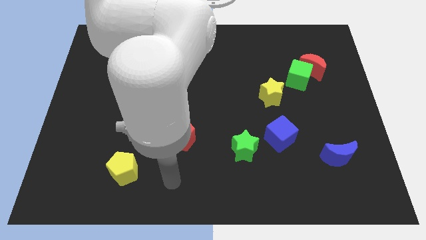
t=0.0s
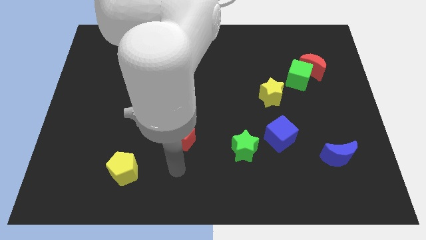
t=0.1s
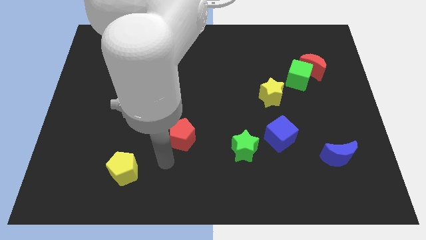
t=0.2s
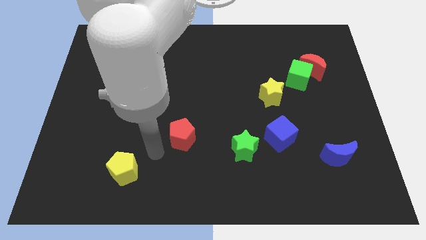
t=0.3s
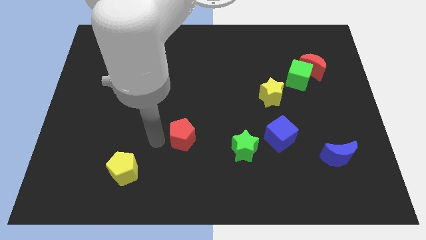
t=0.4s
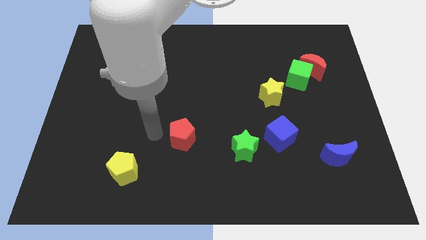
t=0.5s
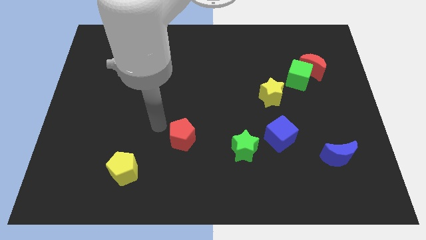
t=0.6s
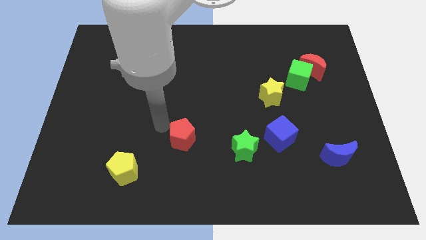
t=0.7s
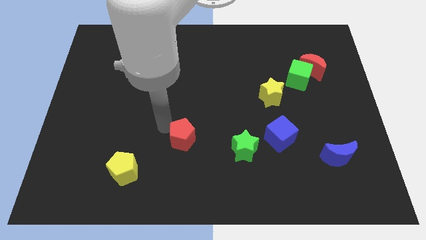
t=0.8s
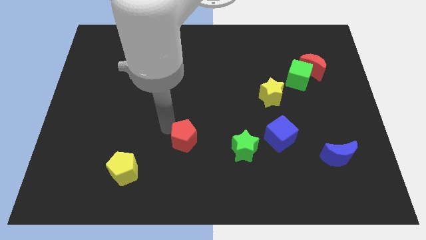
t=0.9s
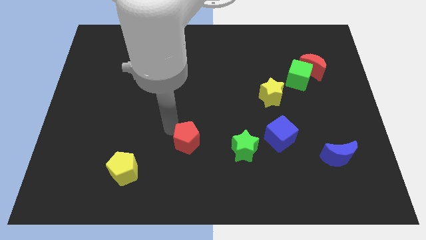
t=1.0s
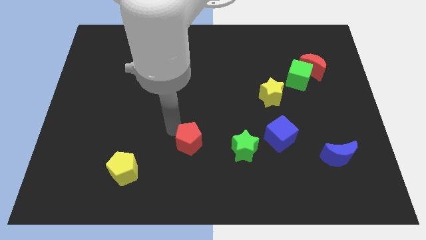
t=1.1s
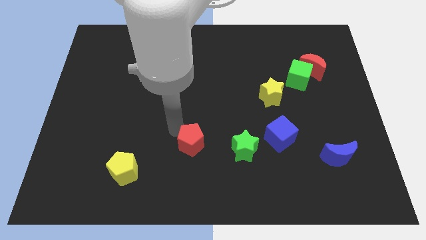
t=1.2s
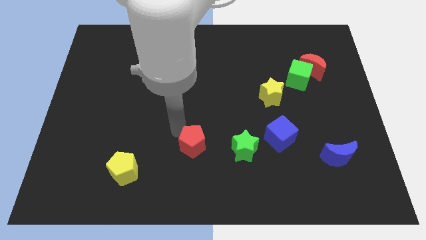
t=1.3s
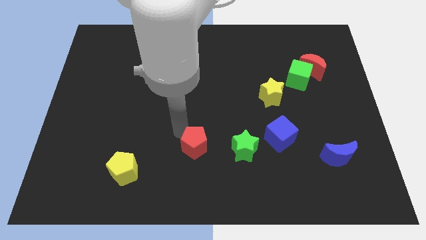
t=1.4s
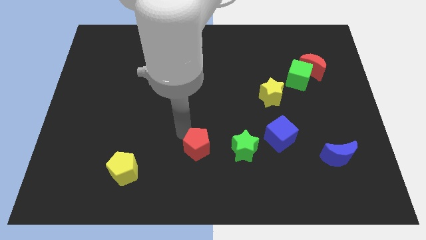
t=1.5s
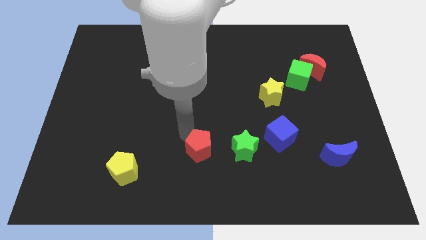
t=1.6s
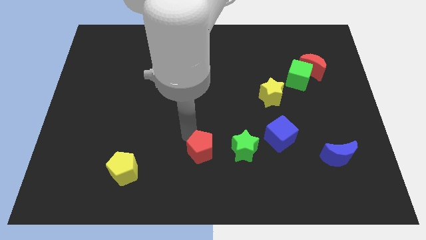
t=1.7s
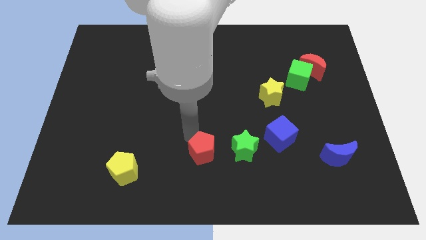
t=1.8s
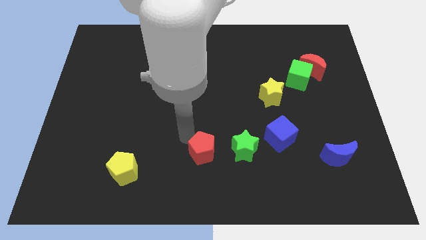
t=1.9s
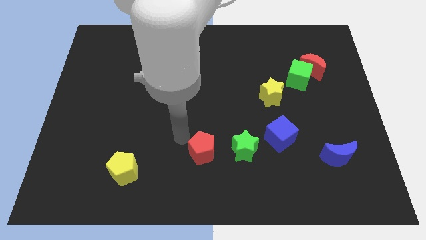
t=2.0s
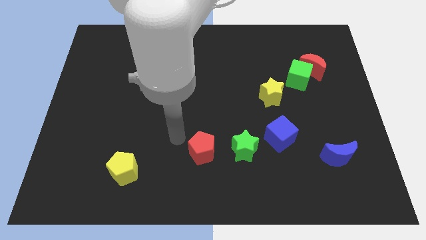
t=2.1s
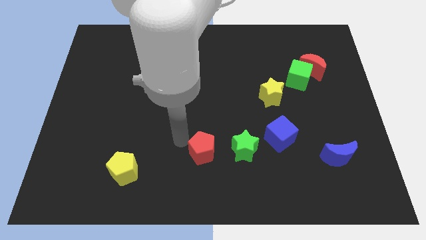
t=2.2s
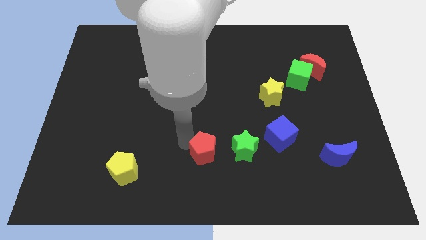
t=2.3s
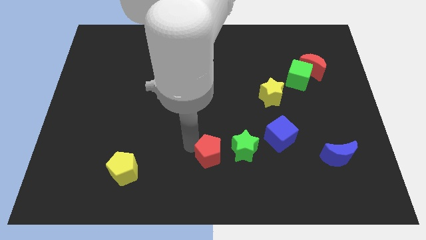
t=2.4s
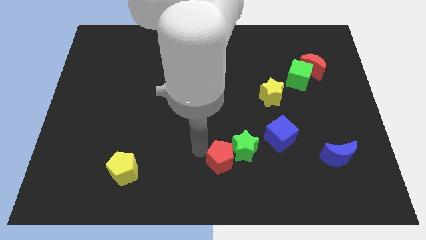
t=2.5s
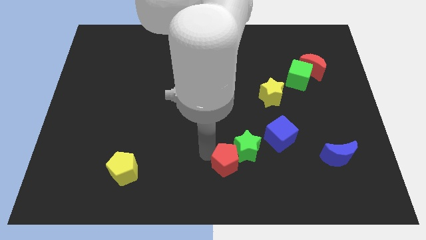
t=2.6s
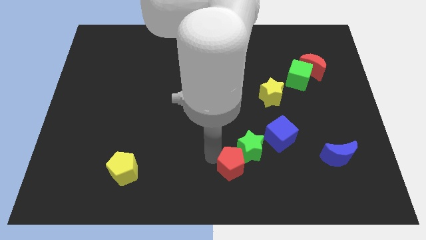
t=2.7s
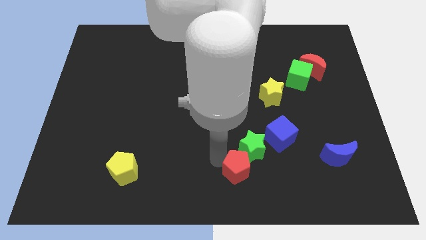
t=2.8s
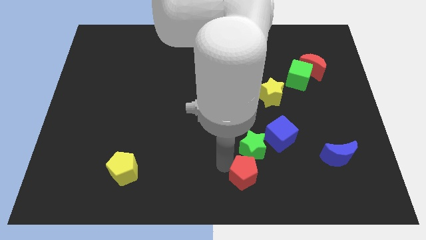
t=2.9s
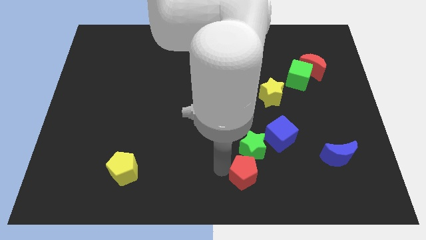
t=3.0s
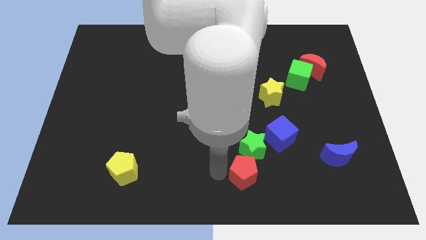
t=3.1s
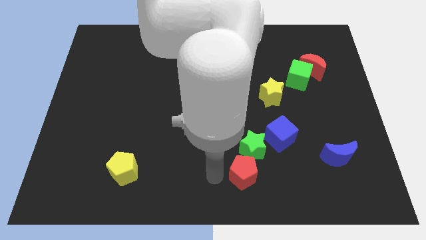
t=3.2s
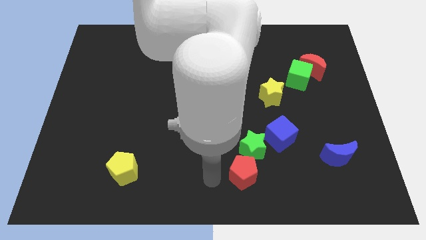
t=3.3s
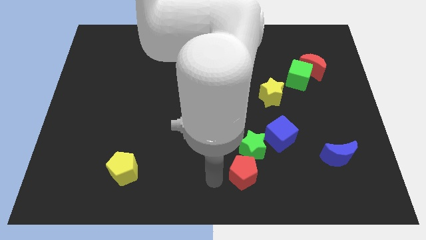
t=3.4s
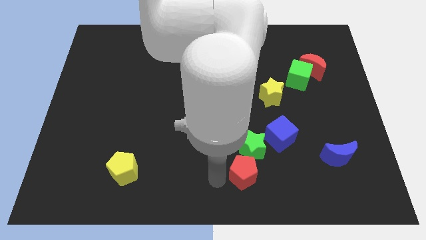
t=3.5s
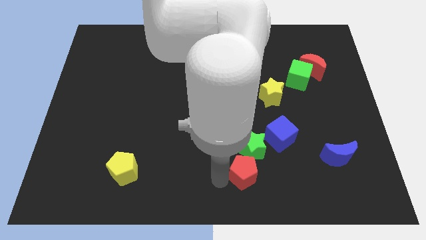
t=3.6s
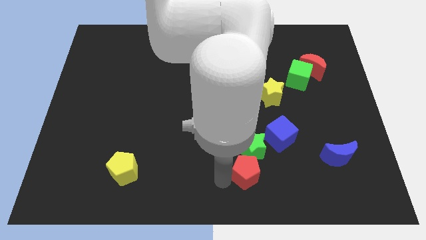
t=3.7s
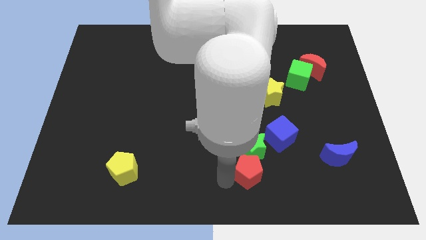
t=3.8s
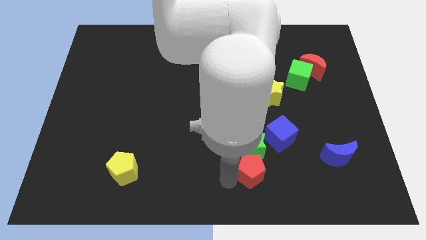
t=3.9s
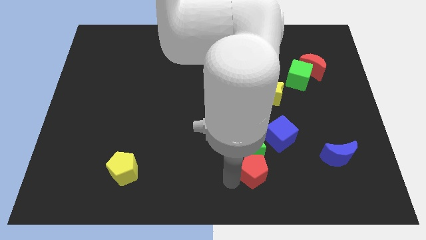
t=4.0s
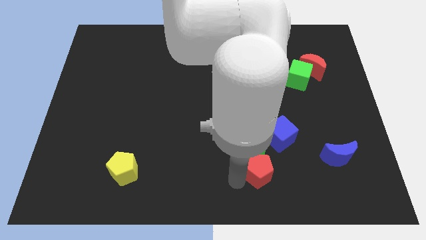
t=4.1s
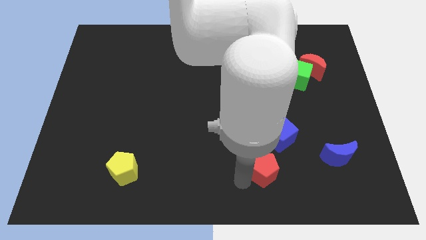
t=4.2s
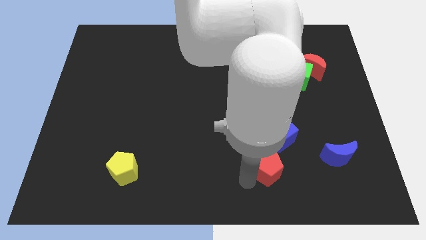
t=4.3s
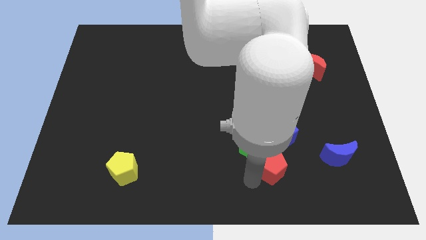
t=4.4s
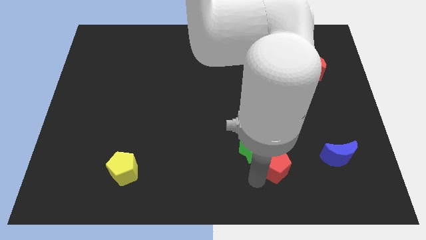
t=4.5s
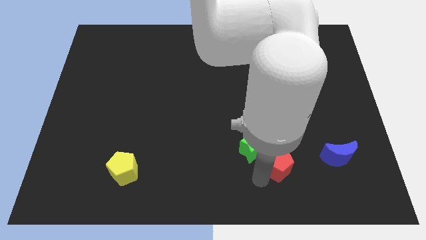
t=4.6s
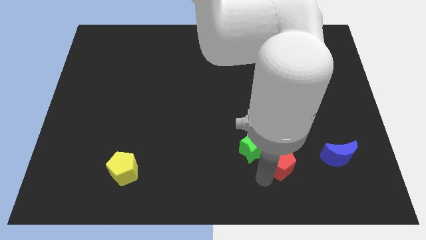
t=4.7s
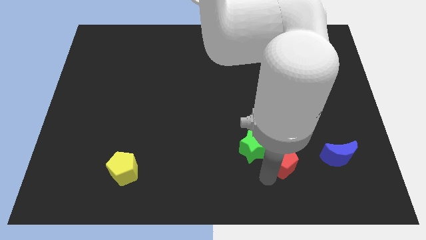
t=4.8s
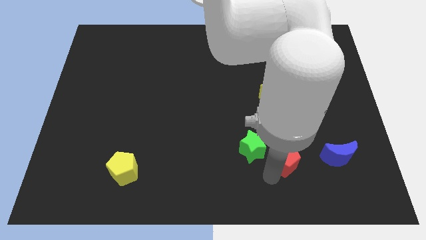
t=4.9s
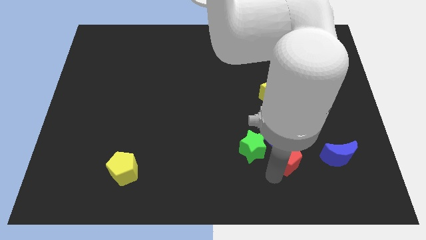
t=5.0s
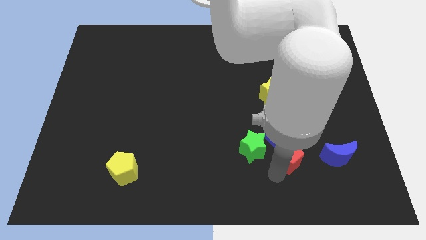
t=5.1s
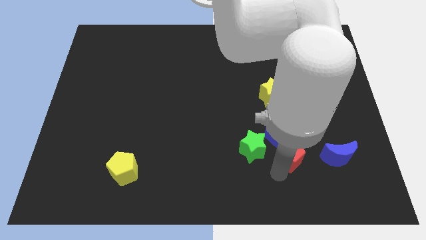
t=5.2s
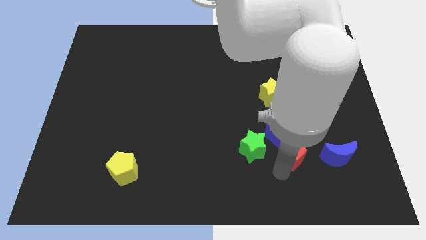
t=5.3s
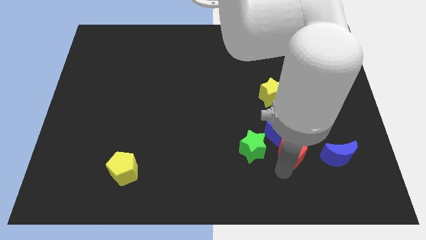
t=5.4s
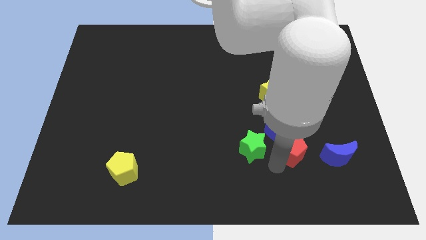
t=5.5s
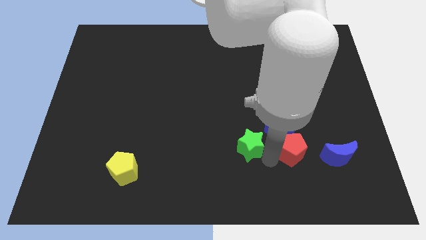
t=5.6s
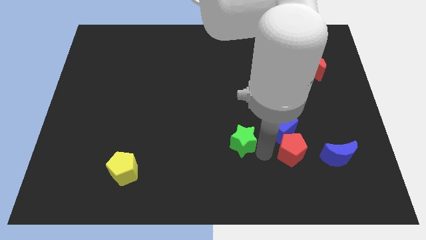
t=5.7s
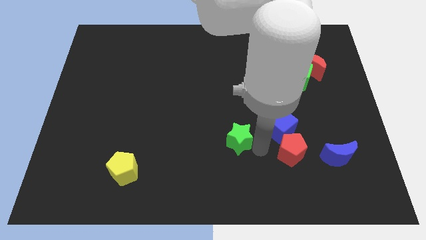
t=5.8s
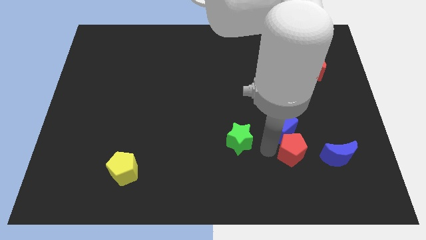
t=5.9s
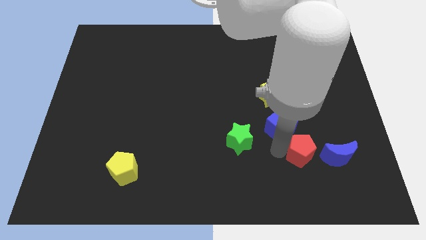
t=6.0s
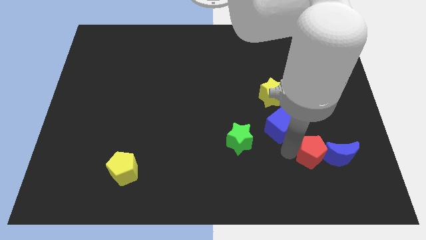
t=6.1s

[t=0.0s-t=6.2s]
push the red pentagon next to the blue moon
